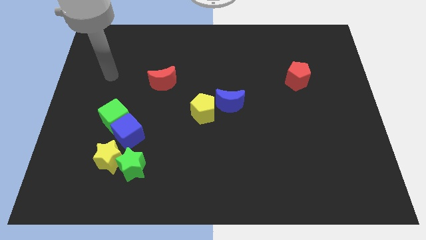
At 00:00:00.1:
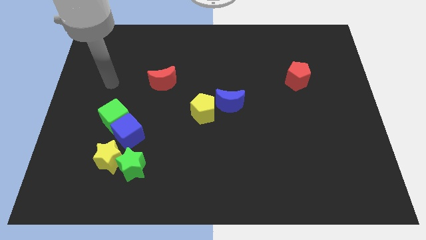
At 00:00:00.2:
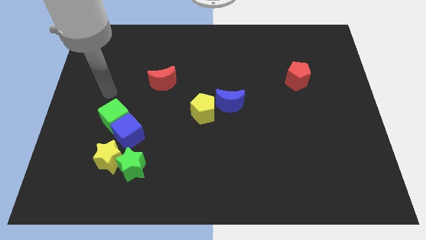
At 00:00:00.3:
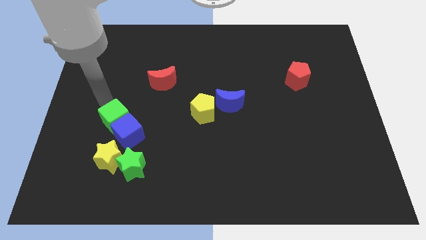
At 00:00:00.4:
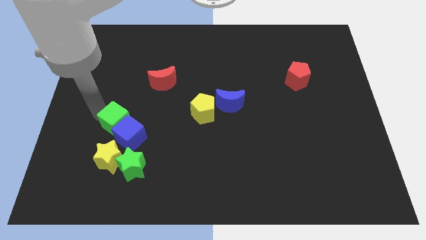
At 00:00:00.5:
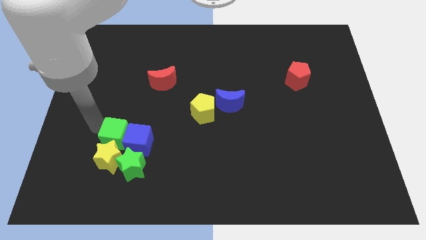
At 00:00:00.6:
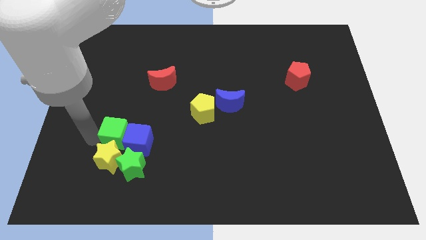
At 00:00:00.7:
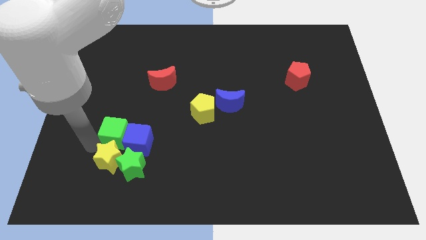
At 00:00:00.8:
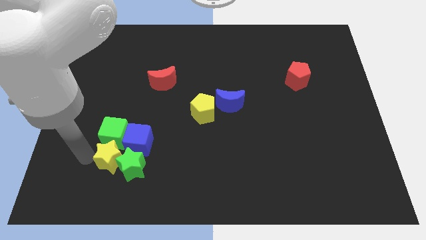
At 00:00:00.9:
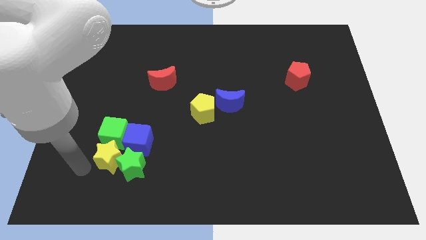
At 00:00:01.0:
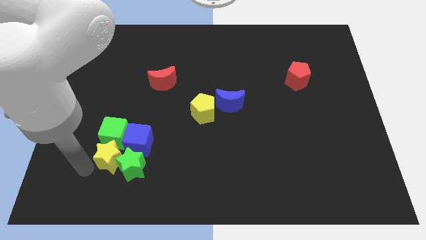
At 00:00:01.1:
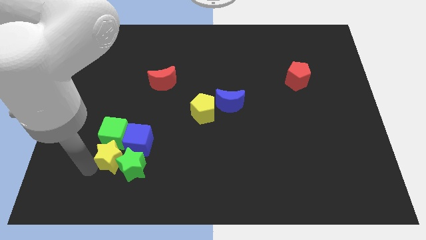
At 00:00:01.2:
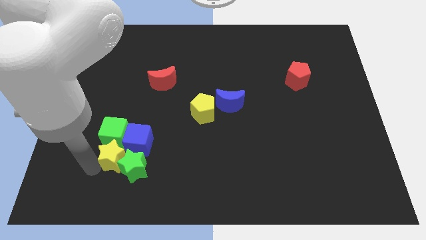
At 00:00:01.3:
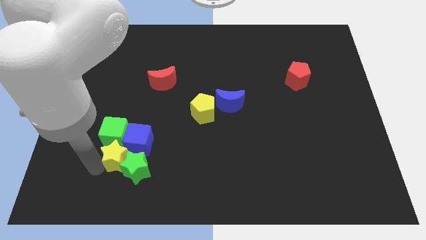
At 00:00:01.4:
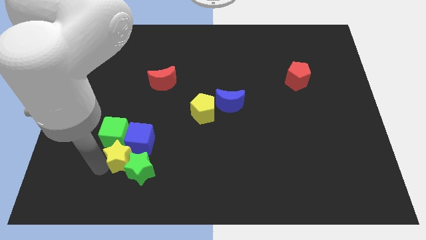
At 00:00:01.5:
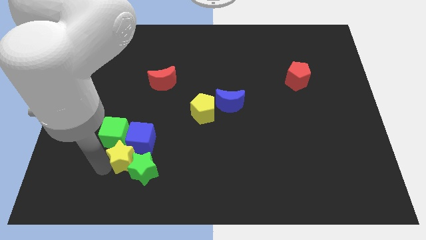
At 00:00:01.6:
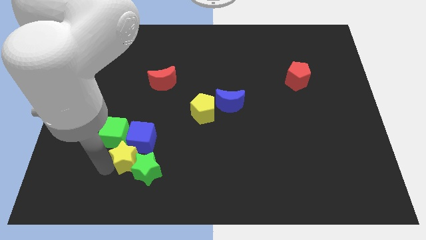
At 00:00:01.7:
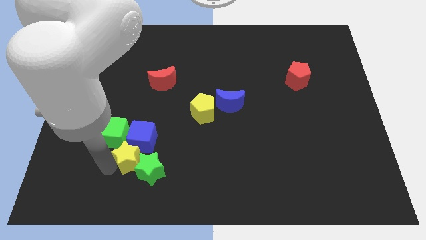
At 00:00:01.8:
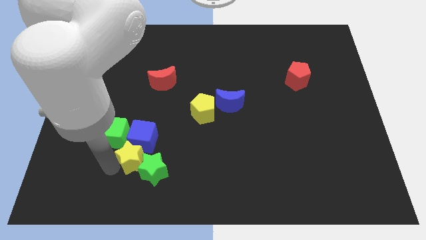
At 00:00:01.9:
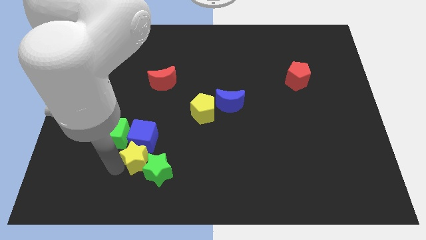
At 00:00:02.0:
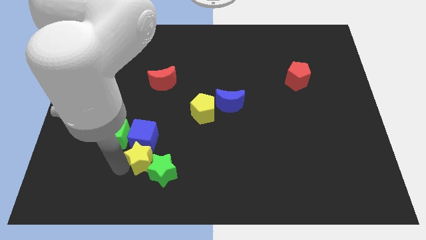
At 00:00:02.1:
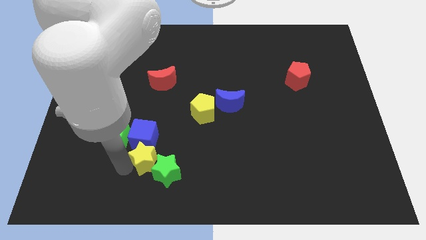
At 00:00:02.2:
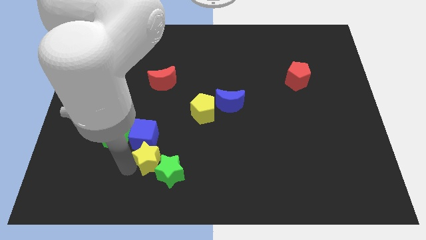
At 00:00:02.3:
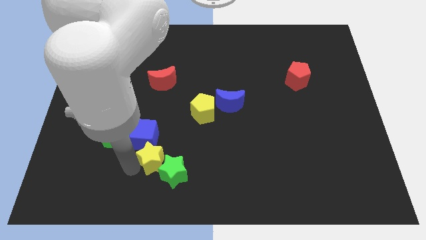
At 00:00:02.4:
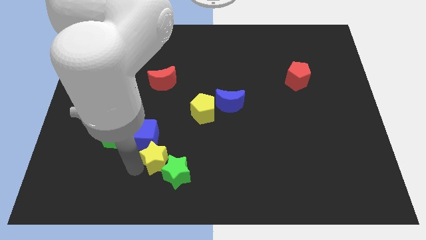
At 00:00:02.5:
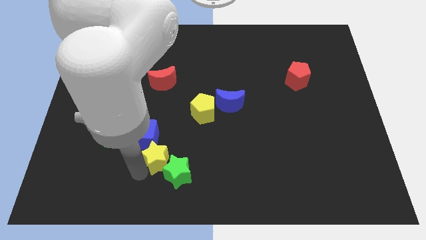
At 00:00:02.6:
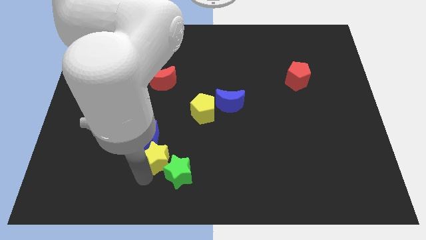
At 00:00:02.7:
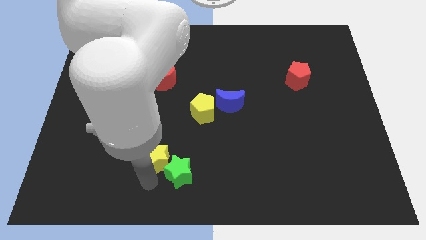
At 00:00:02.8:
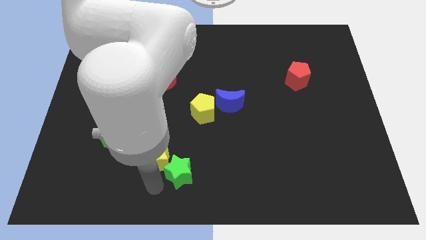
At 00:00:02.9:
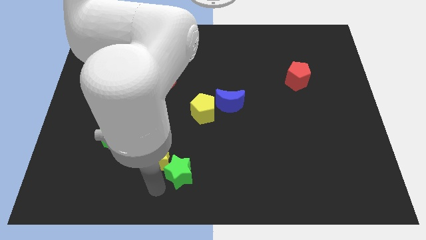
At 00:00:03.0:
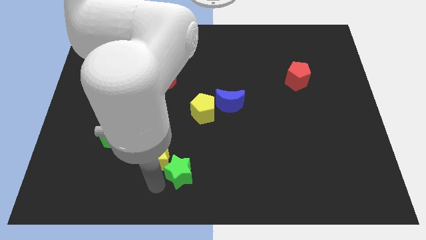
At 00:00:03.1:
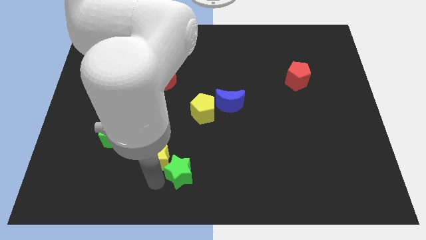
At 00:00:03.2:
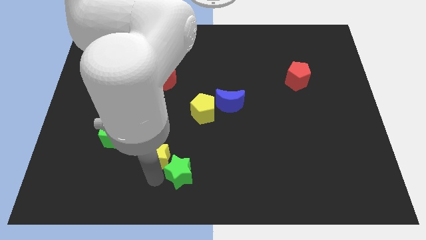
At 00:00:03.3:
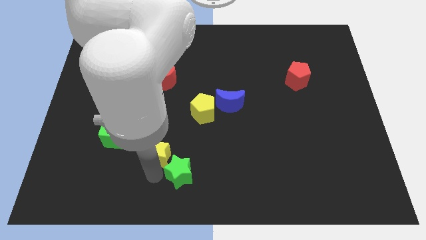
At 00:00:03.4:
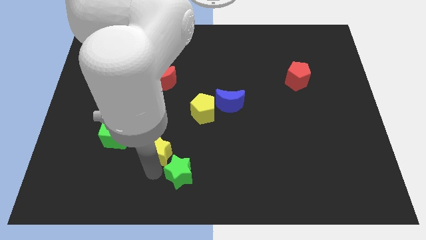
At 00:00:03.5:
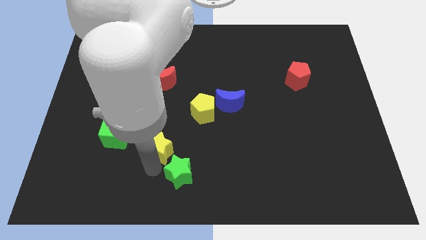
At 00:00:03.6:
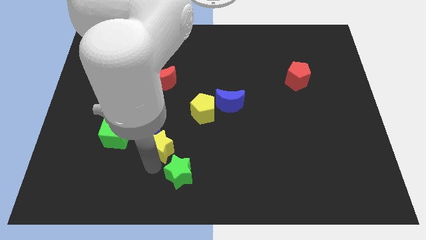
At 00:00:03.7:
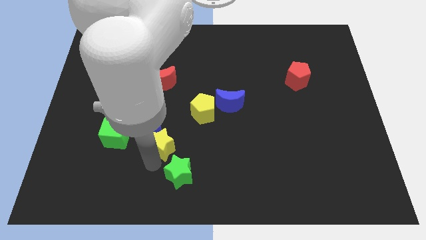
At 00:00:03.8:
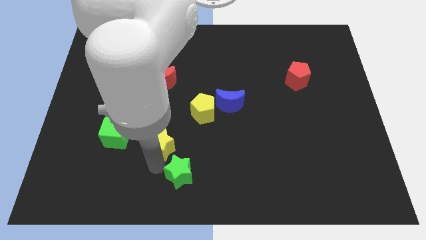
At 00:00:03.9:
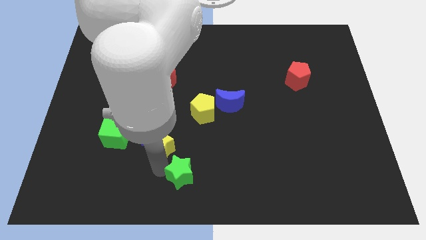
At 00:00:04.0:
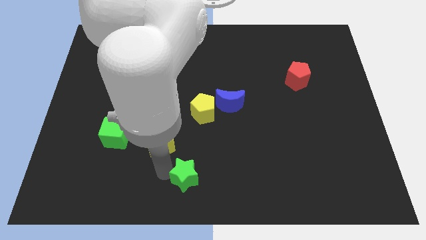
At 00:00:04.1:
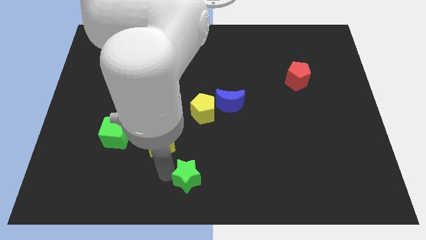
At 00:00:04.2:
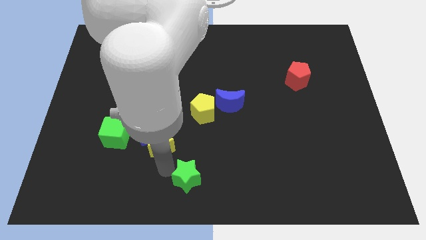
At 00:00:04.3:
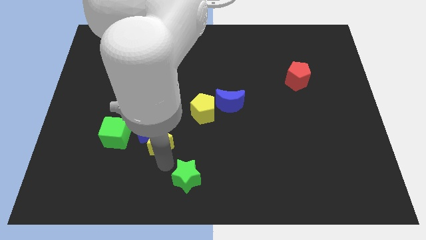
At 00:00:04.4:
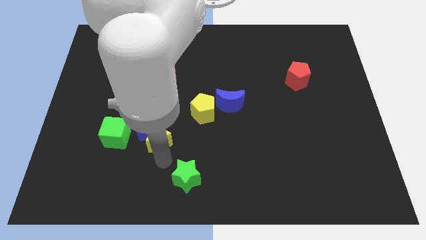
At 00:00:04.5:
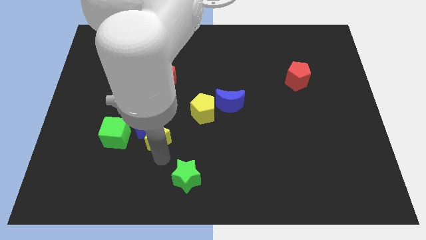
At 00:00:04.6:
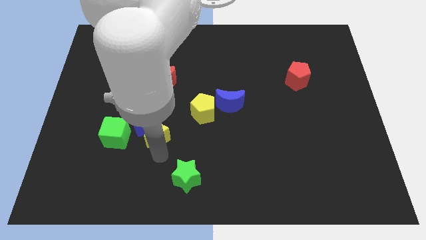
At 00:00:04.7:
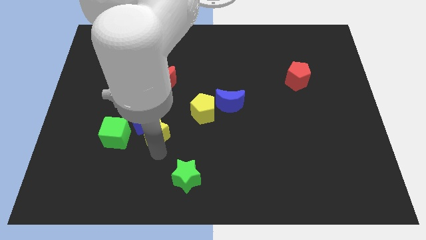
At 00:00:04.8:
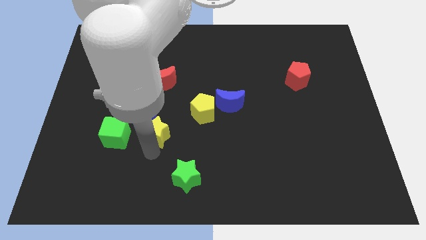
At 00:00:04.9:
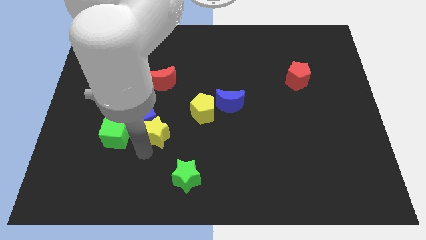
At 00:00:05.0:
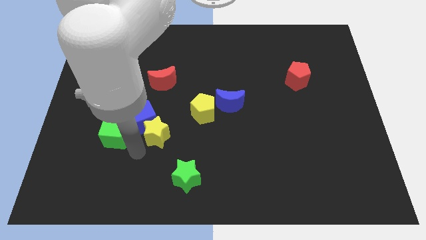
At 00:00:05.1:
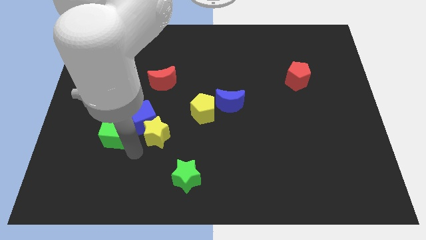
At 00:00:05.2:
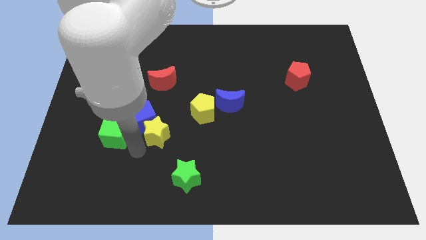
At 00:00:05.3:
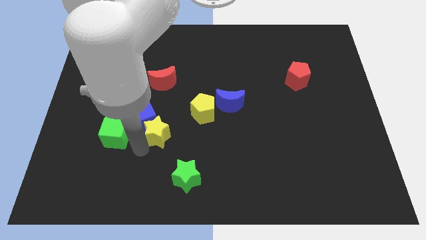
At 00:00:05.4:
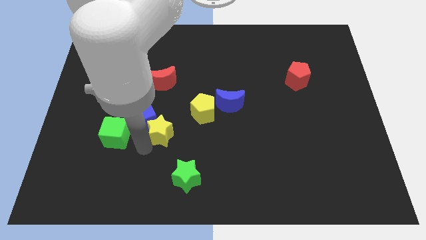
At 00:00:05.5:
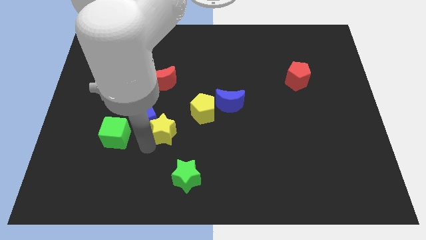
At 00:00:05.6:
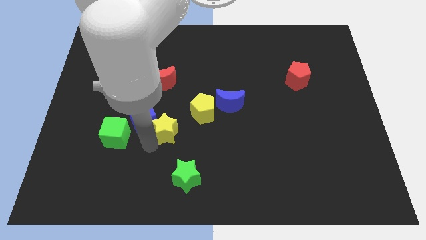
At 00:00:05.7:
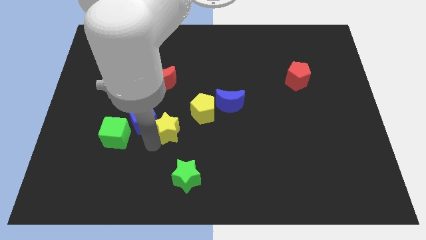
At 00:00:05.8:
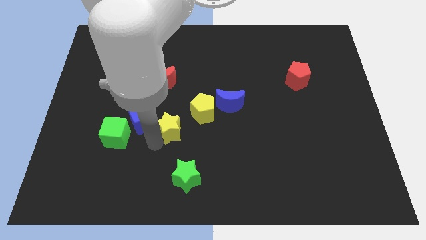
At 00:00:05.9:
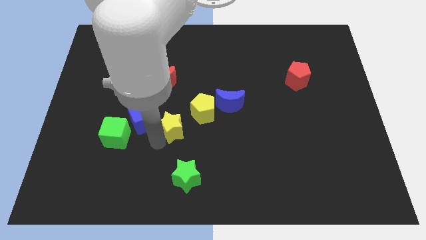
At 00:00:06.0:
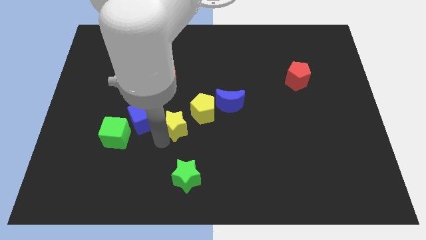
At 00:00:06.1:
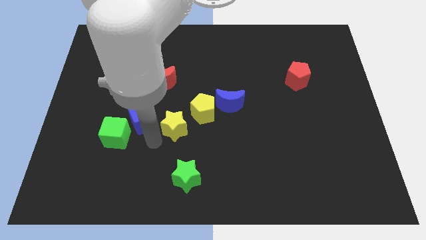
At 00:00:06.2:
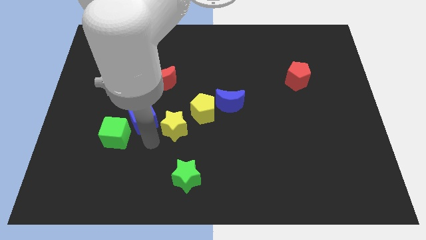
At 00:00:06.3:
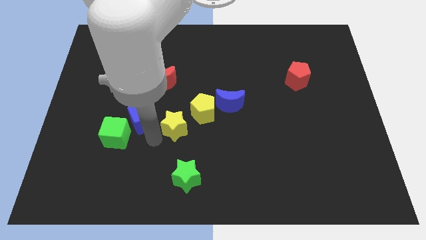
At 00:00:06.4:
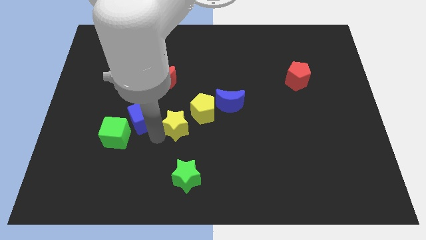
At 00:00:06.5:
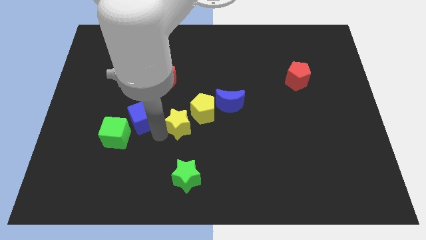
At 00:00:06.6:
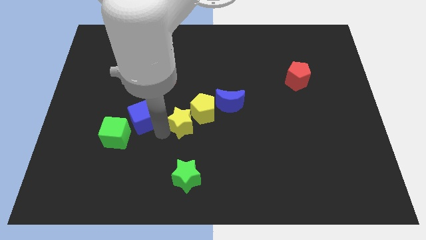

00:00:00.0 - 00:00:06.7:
move the yellow star next to the yellow pentagon

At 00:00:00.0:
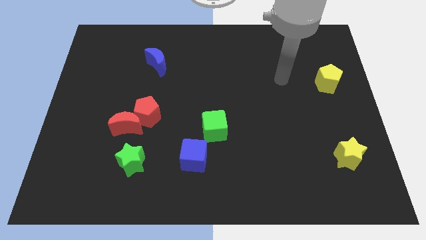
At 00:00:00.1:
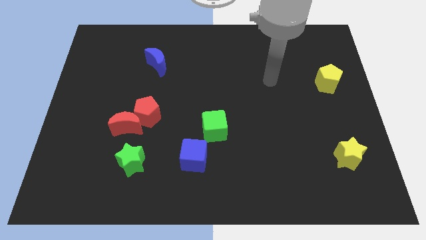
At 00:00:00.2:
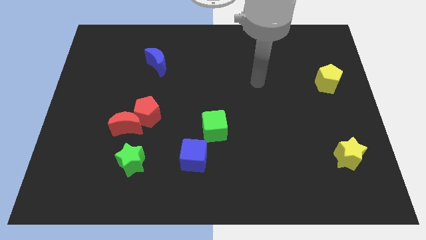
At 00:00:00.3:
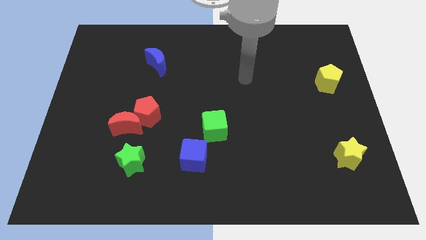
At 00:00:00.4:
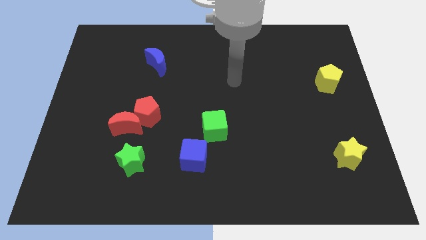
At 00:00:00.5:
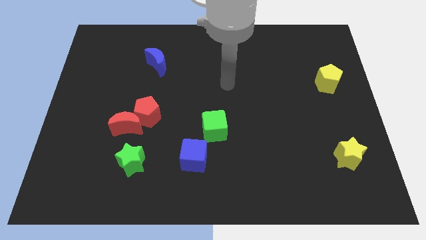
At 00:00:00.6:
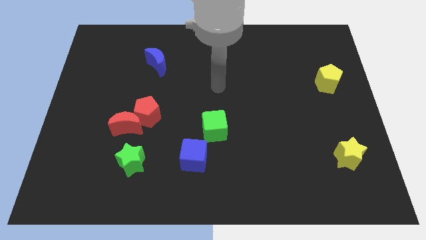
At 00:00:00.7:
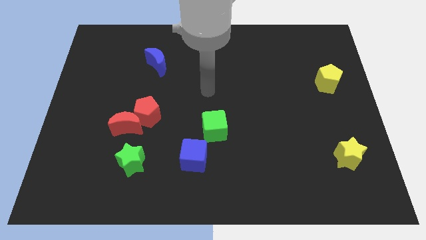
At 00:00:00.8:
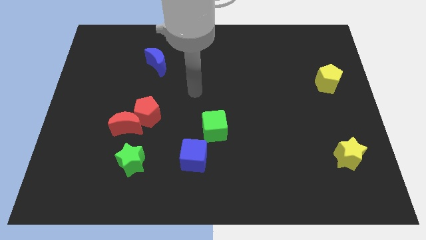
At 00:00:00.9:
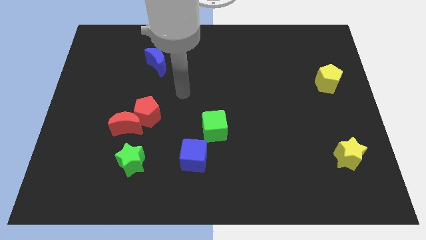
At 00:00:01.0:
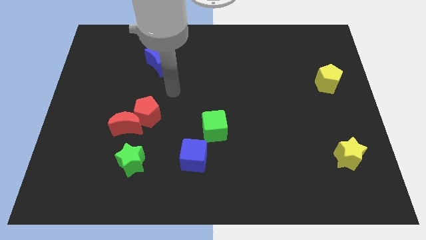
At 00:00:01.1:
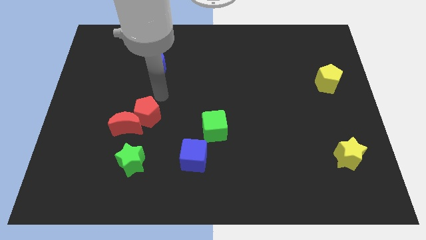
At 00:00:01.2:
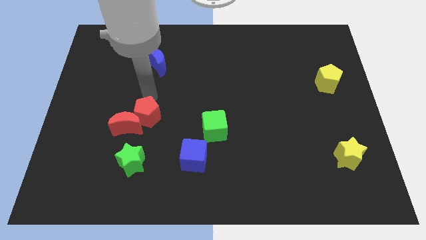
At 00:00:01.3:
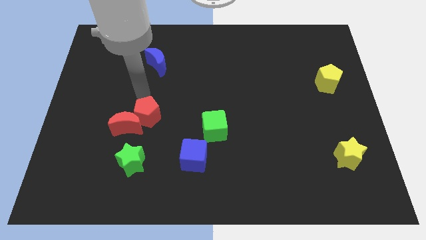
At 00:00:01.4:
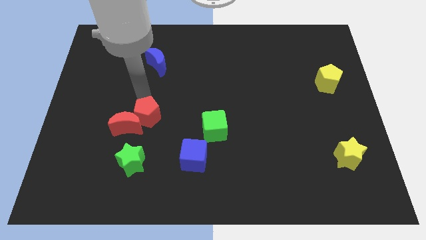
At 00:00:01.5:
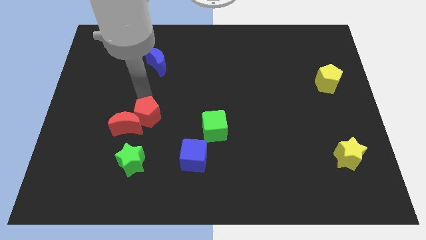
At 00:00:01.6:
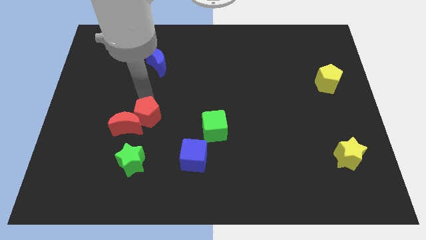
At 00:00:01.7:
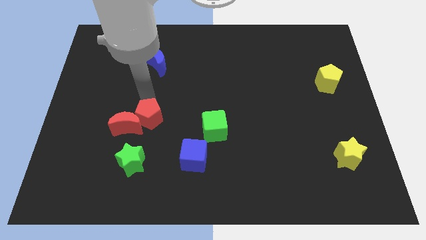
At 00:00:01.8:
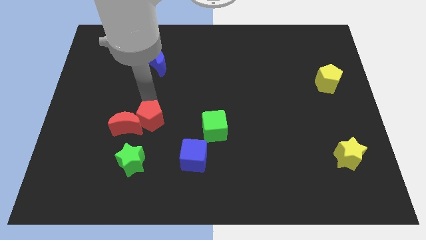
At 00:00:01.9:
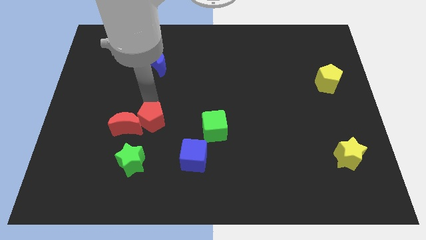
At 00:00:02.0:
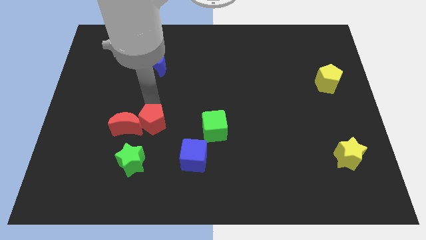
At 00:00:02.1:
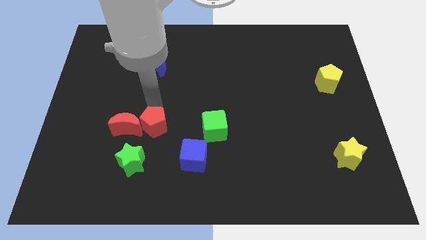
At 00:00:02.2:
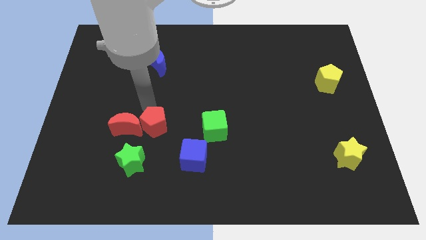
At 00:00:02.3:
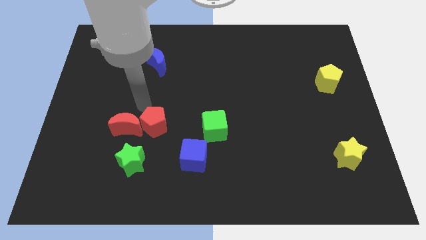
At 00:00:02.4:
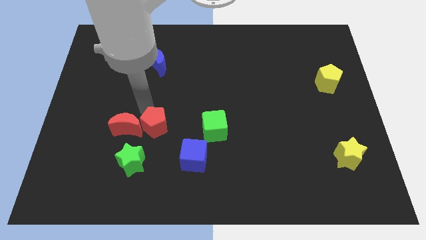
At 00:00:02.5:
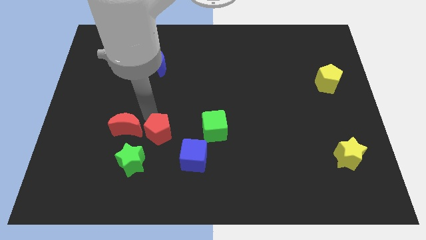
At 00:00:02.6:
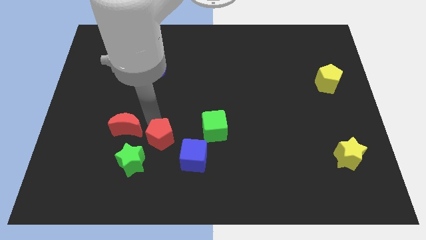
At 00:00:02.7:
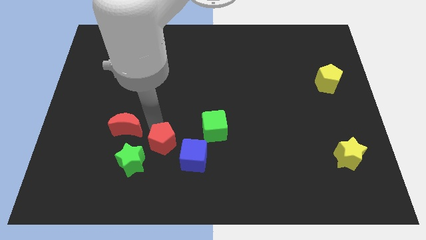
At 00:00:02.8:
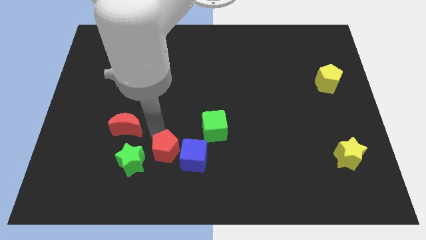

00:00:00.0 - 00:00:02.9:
slide the red pentagon to the blue cube
